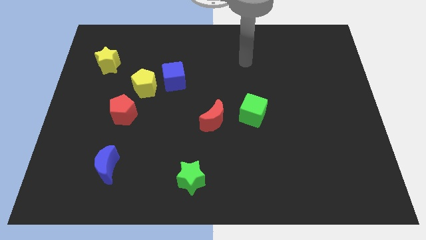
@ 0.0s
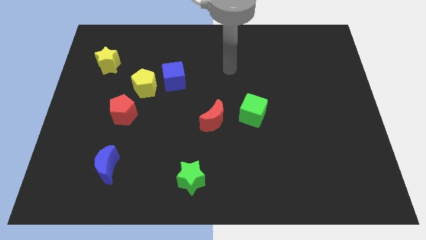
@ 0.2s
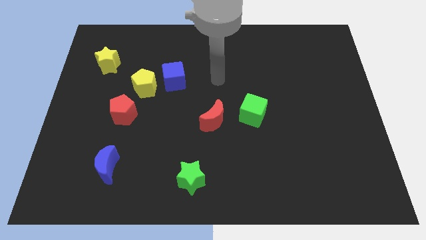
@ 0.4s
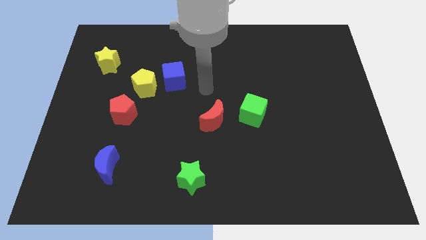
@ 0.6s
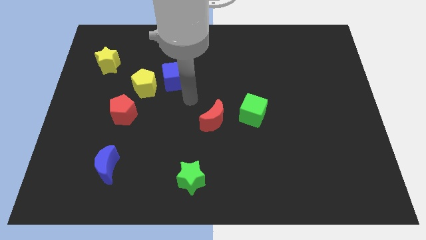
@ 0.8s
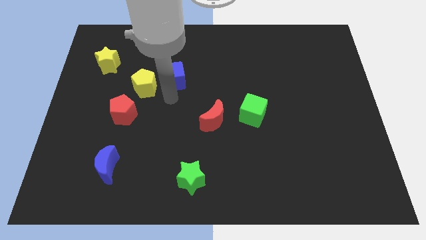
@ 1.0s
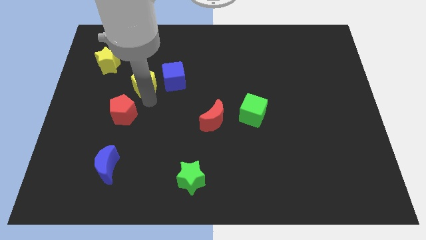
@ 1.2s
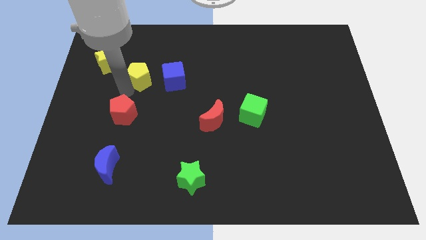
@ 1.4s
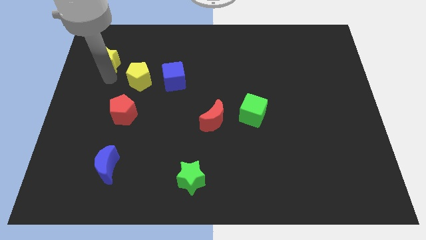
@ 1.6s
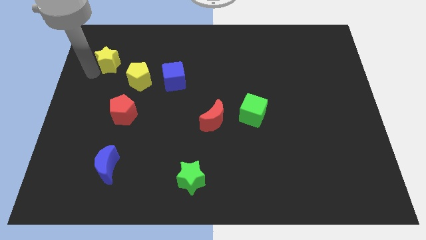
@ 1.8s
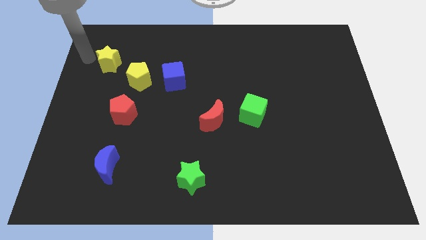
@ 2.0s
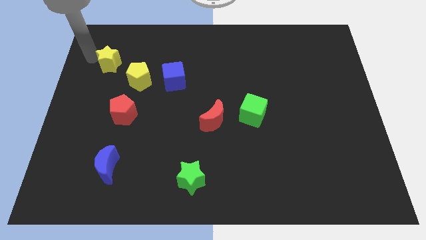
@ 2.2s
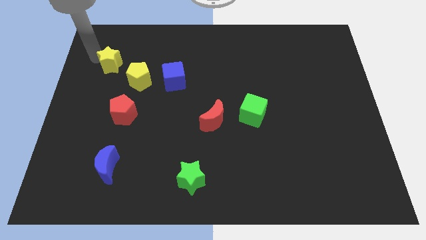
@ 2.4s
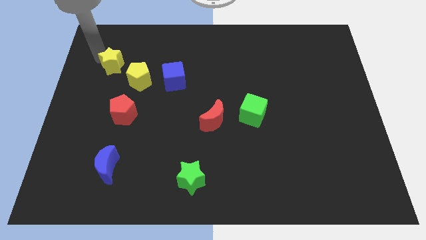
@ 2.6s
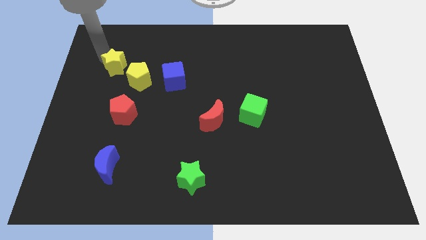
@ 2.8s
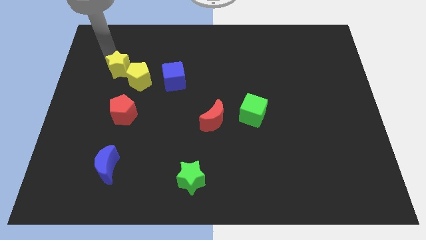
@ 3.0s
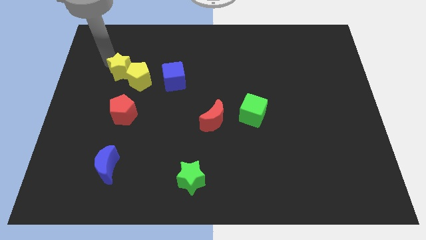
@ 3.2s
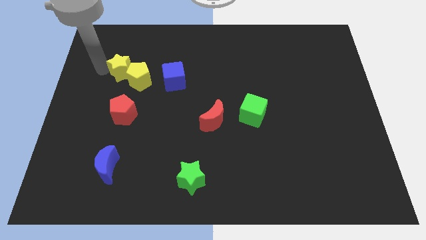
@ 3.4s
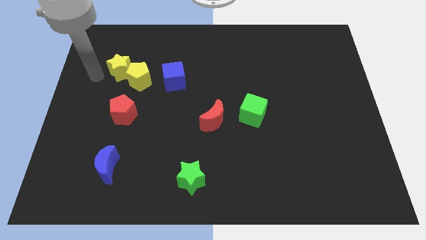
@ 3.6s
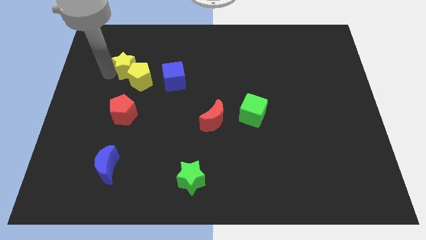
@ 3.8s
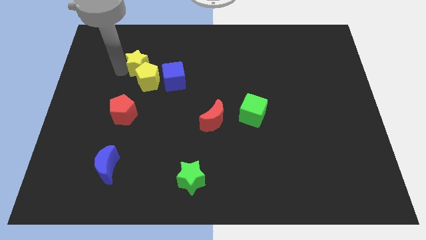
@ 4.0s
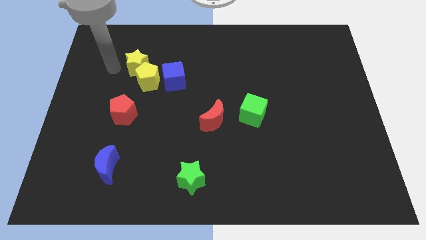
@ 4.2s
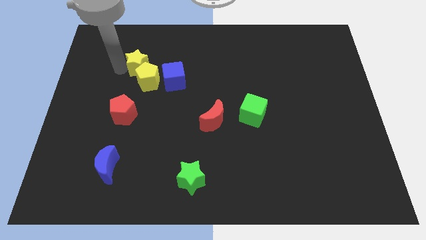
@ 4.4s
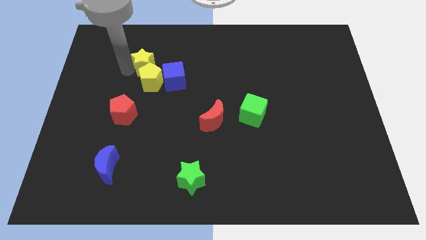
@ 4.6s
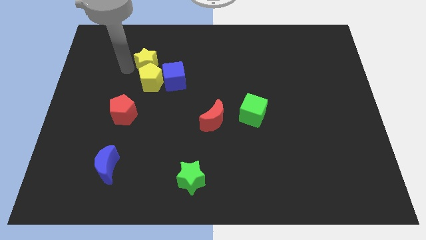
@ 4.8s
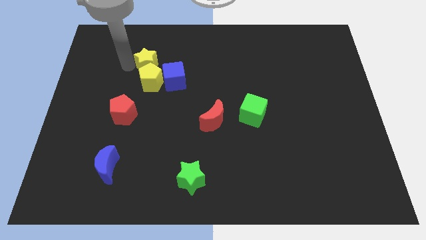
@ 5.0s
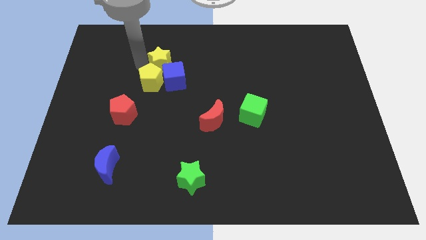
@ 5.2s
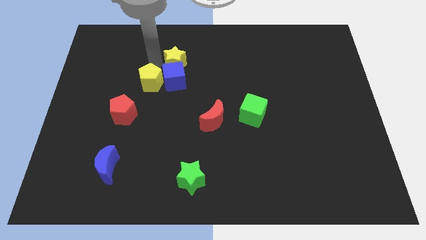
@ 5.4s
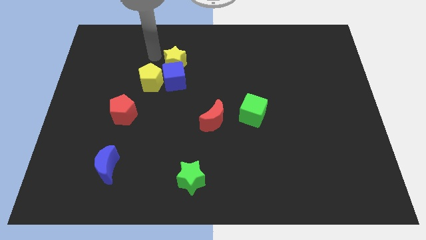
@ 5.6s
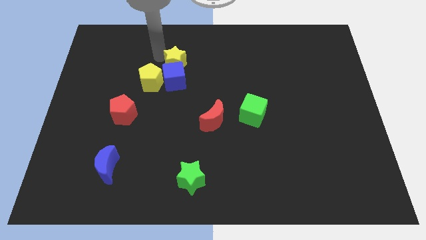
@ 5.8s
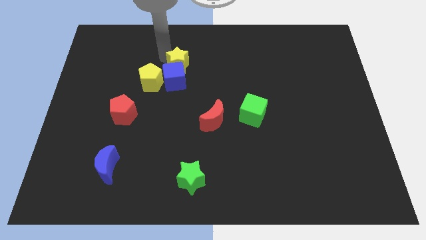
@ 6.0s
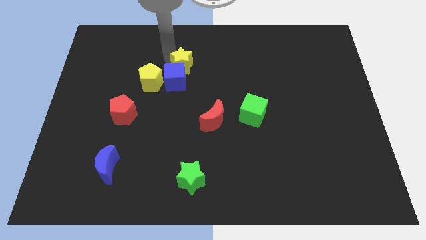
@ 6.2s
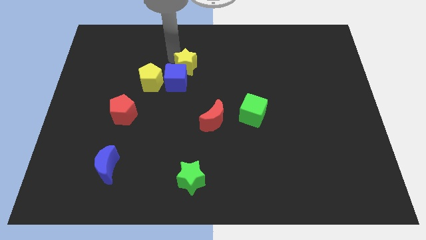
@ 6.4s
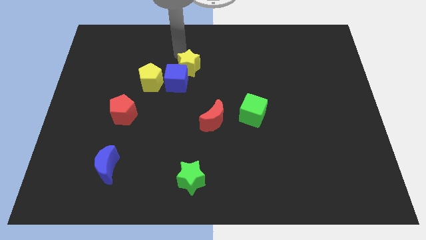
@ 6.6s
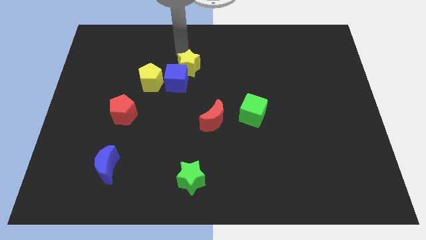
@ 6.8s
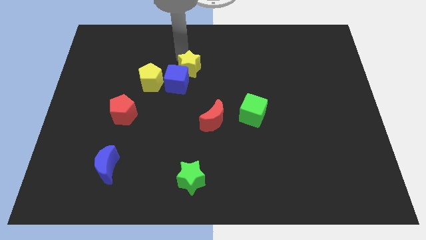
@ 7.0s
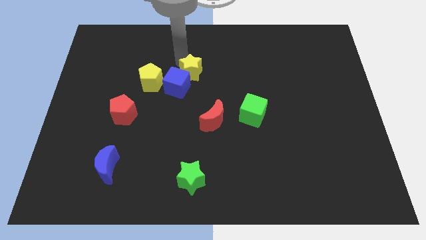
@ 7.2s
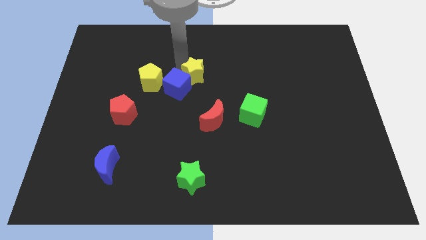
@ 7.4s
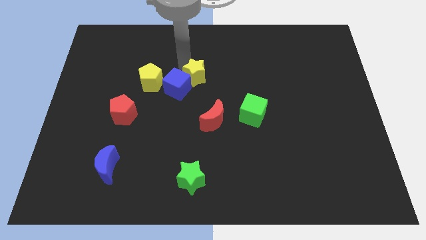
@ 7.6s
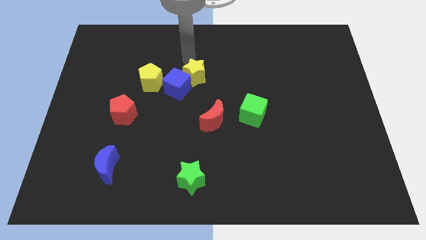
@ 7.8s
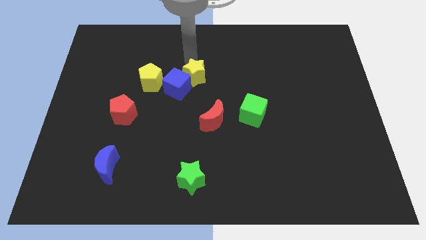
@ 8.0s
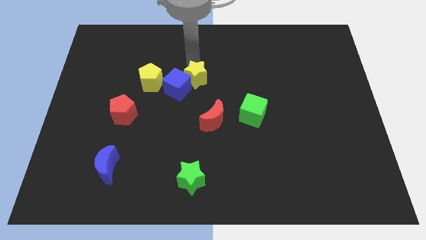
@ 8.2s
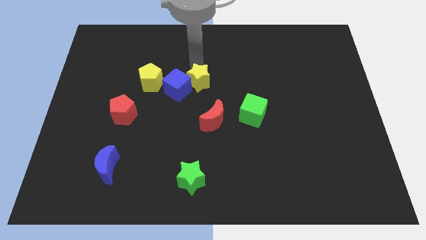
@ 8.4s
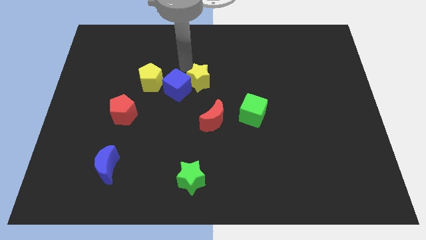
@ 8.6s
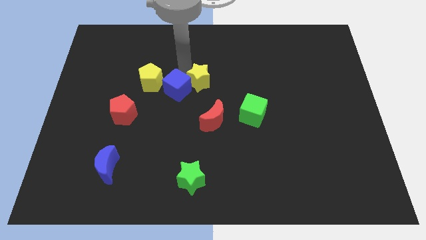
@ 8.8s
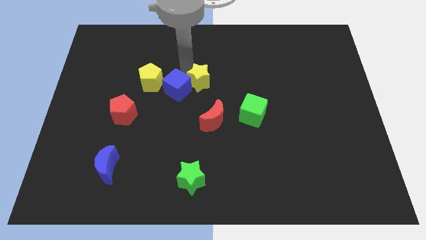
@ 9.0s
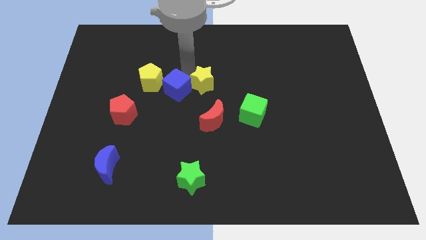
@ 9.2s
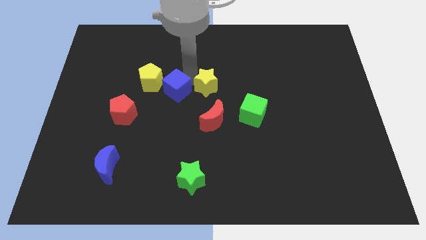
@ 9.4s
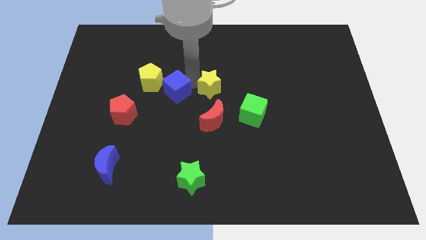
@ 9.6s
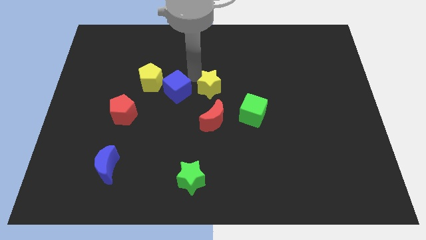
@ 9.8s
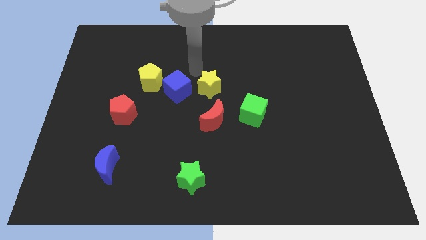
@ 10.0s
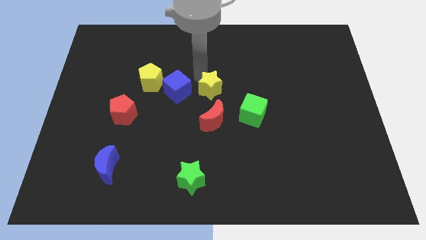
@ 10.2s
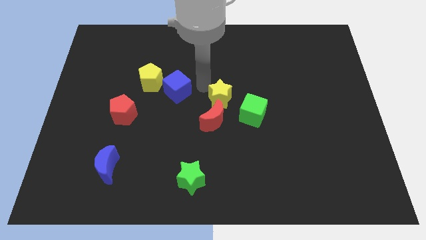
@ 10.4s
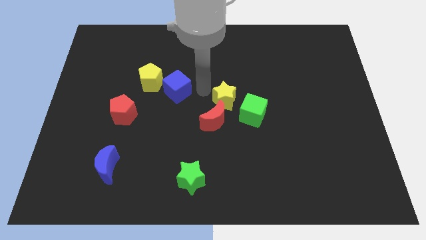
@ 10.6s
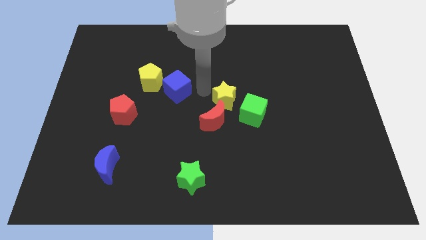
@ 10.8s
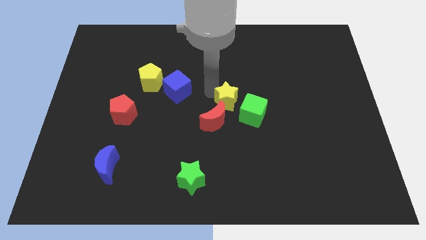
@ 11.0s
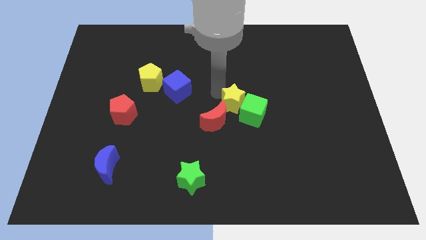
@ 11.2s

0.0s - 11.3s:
push the yellow star towards the green cube

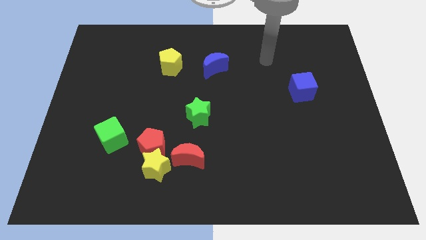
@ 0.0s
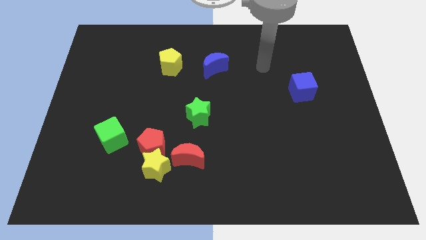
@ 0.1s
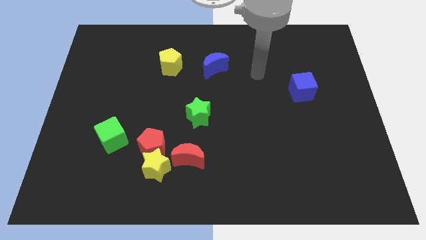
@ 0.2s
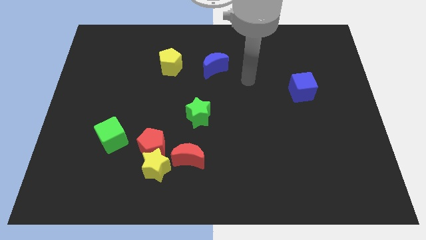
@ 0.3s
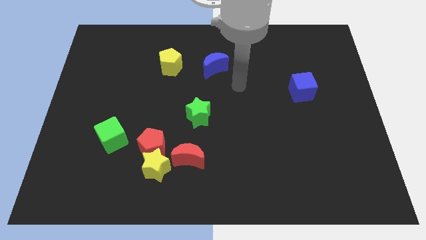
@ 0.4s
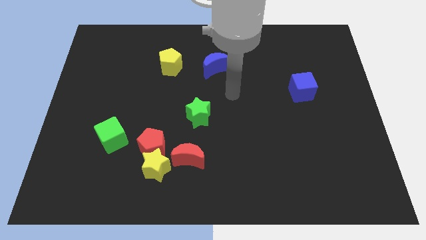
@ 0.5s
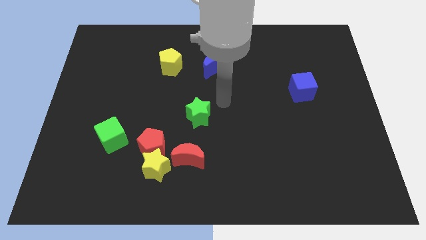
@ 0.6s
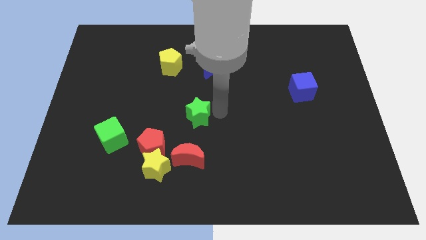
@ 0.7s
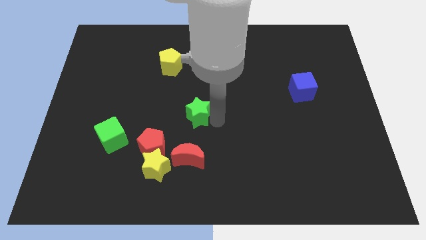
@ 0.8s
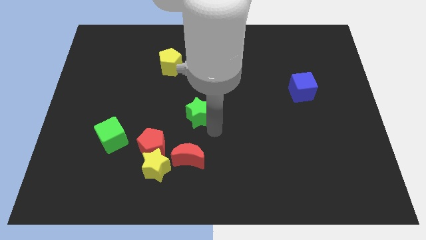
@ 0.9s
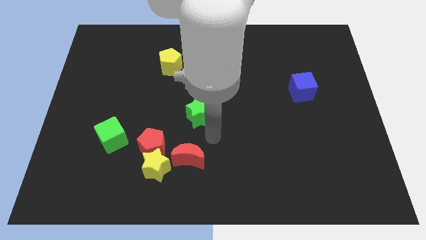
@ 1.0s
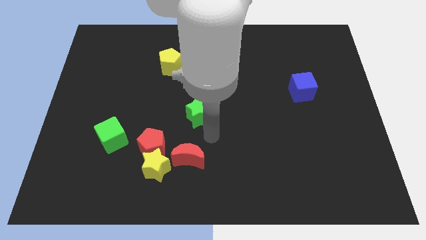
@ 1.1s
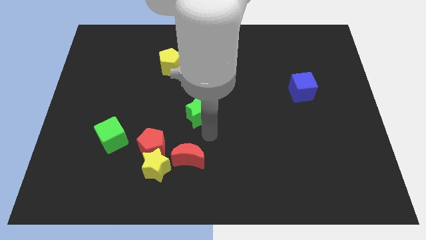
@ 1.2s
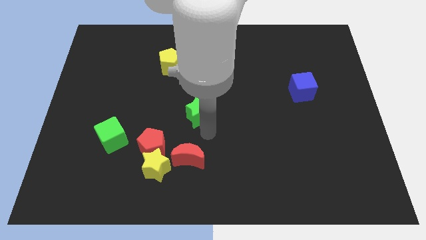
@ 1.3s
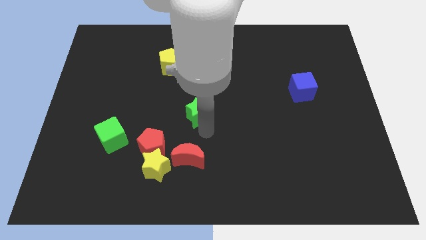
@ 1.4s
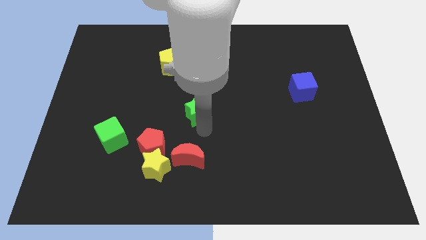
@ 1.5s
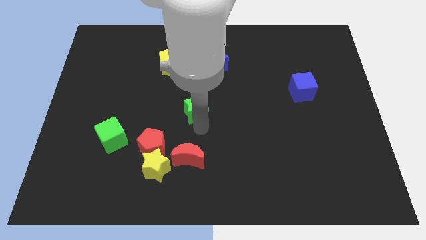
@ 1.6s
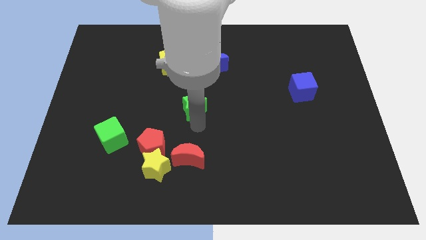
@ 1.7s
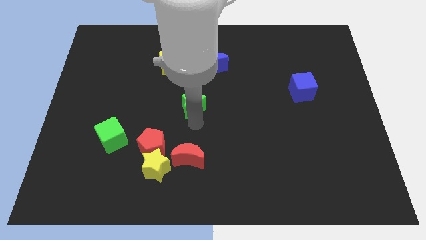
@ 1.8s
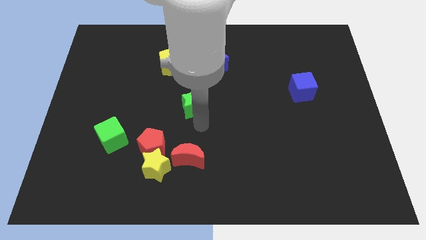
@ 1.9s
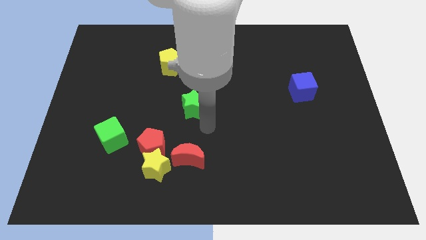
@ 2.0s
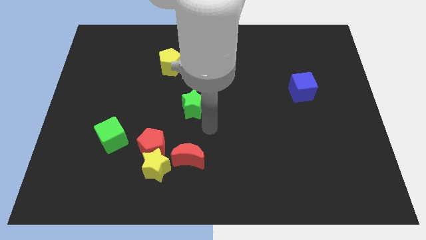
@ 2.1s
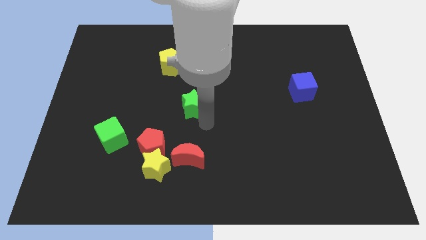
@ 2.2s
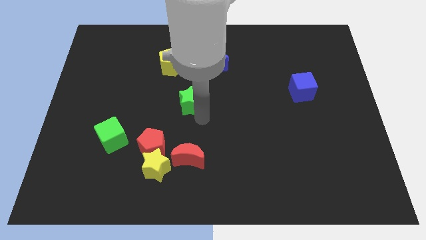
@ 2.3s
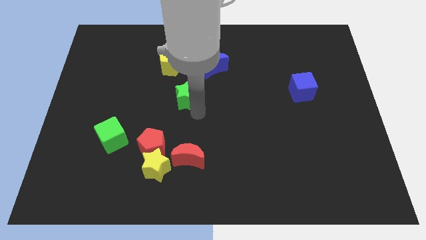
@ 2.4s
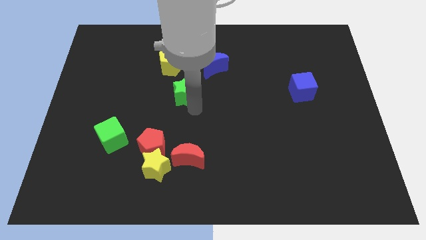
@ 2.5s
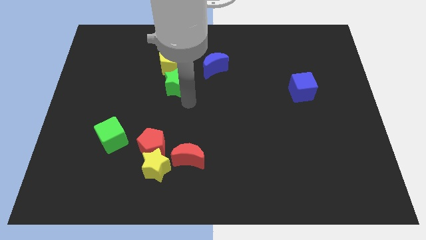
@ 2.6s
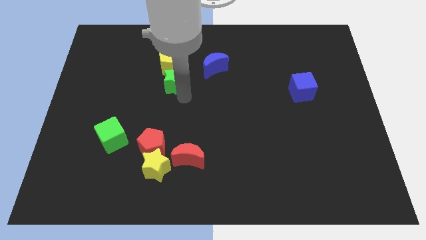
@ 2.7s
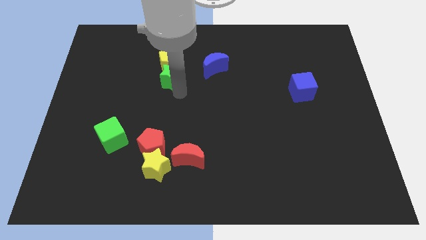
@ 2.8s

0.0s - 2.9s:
push the green star to the yellow pentagon
